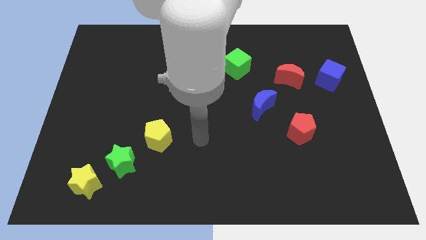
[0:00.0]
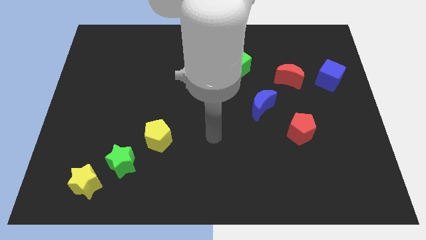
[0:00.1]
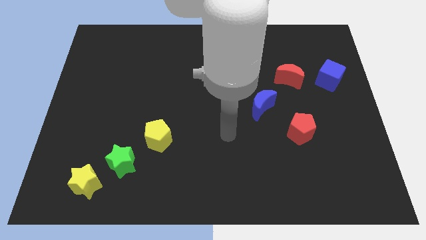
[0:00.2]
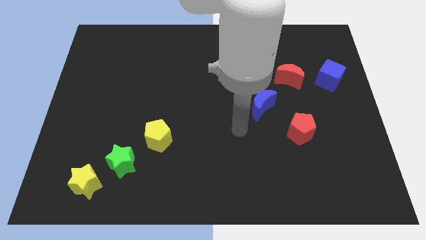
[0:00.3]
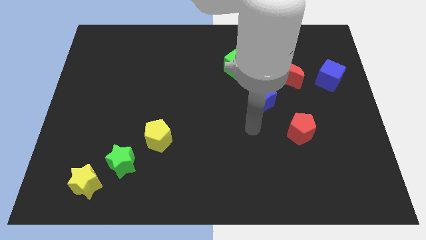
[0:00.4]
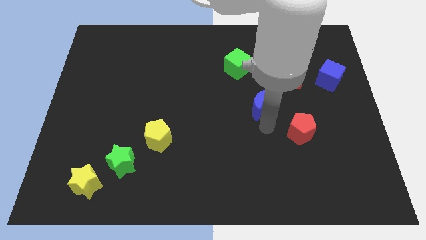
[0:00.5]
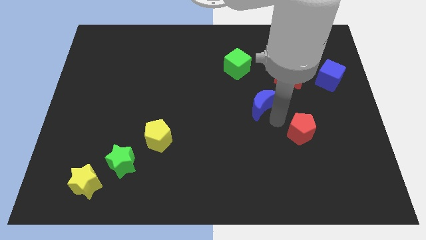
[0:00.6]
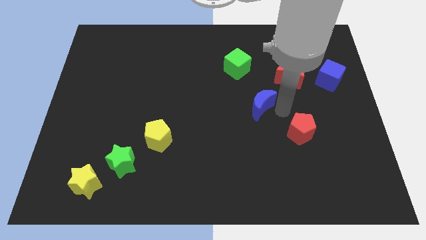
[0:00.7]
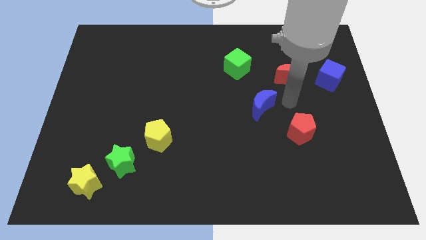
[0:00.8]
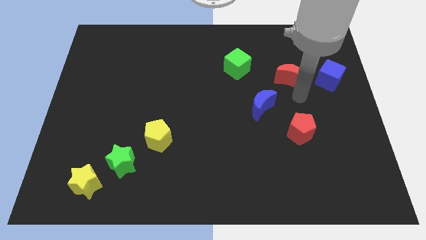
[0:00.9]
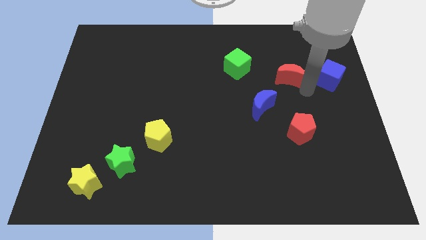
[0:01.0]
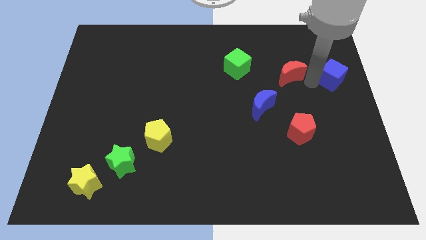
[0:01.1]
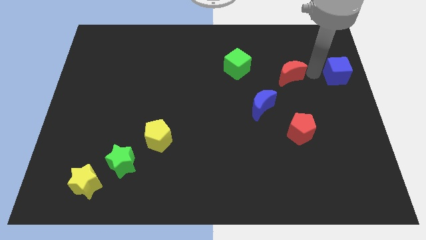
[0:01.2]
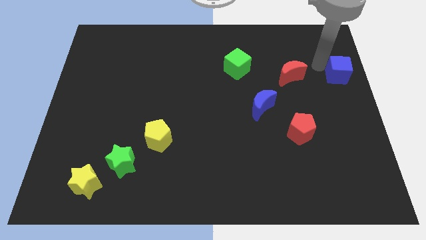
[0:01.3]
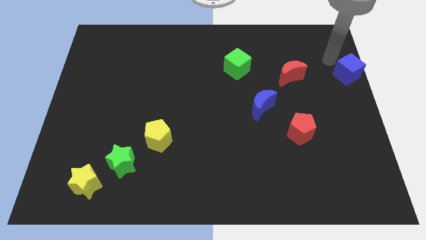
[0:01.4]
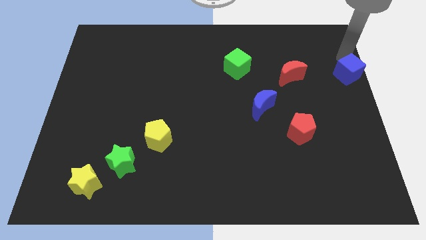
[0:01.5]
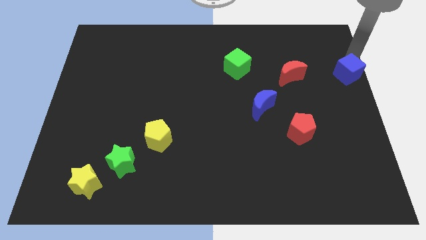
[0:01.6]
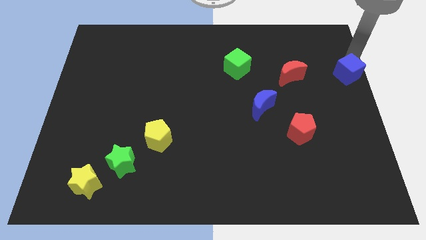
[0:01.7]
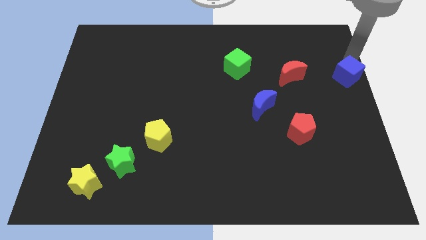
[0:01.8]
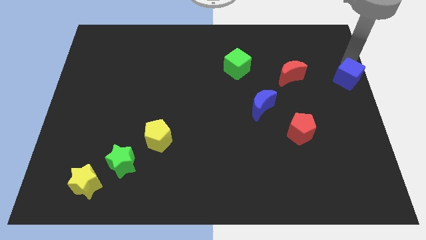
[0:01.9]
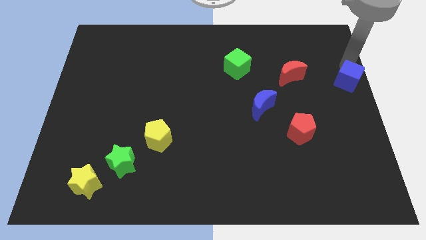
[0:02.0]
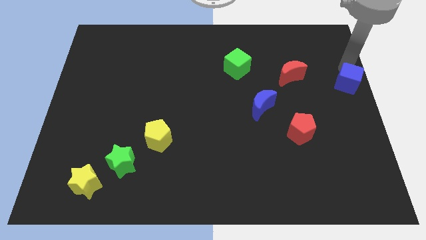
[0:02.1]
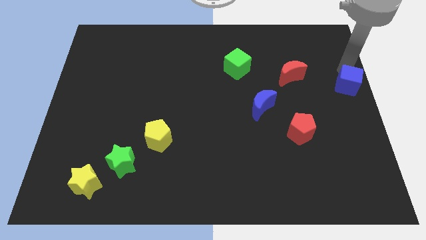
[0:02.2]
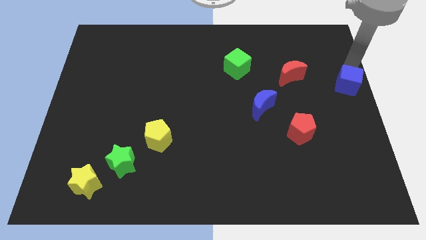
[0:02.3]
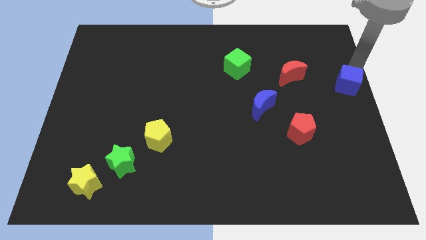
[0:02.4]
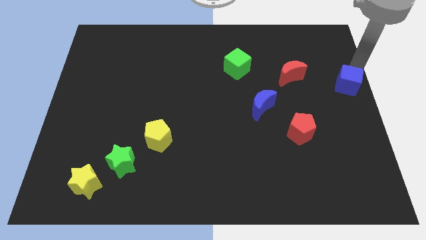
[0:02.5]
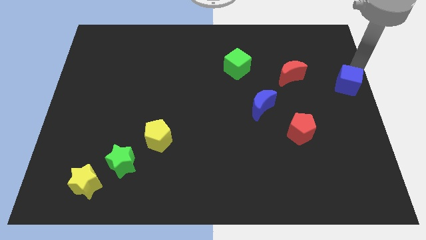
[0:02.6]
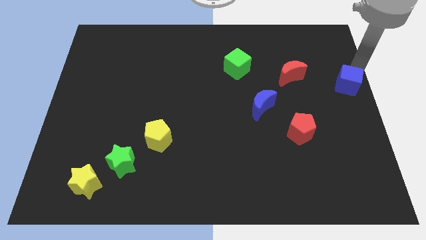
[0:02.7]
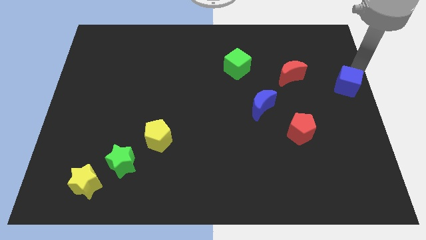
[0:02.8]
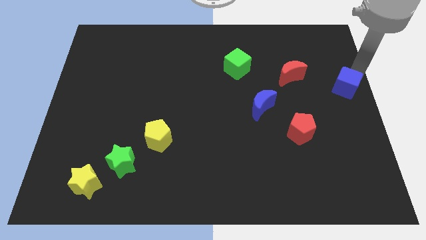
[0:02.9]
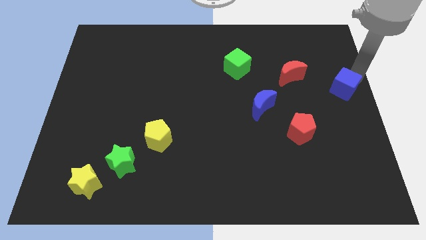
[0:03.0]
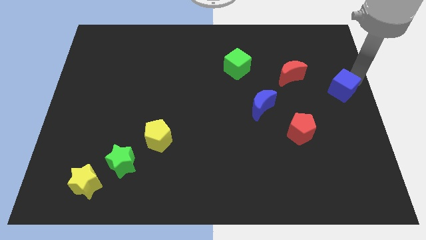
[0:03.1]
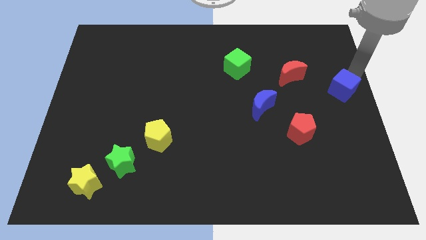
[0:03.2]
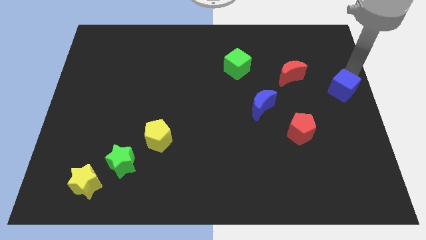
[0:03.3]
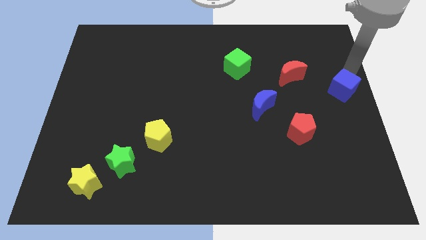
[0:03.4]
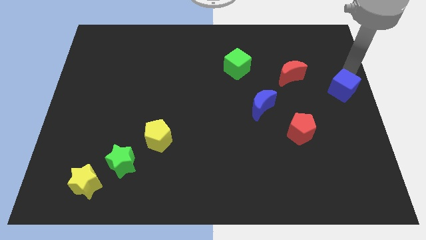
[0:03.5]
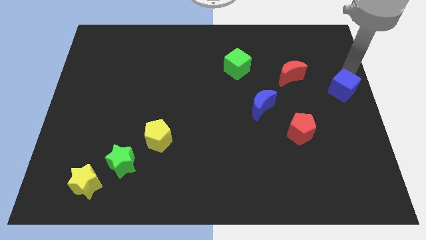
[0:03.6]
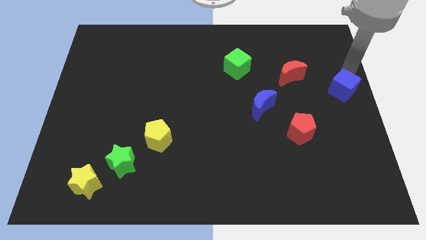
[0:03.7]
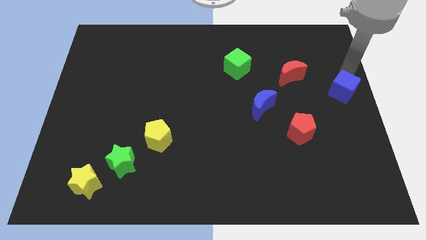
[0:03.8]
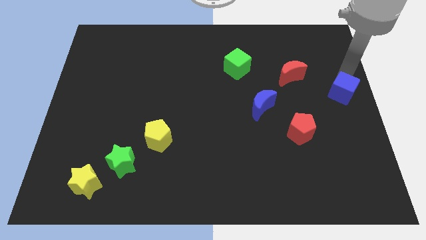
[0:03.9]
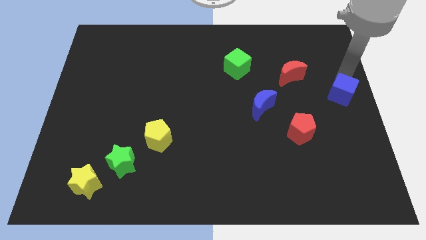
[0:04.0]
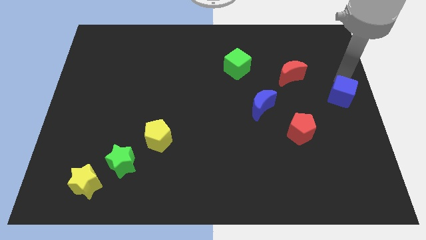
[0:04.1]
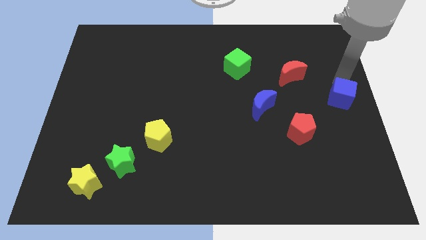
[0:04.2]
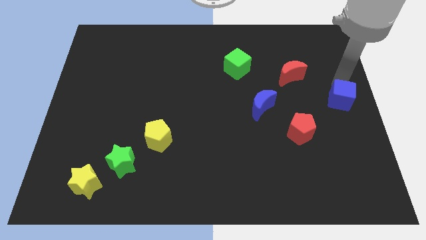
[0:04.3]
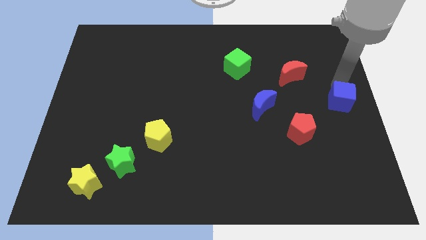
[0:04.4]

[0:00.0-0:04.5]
push the blue cube somewhat down

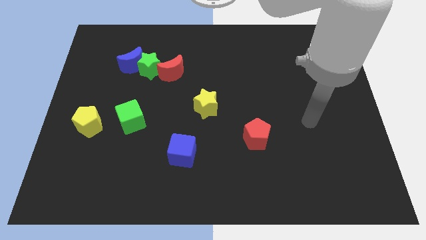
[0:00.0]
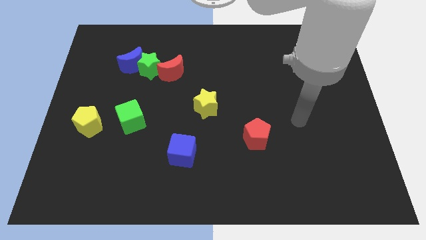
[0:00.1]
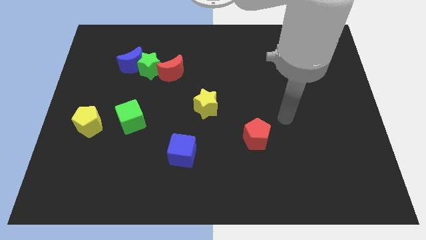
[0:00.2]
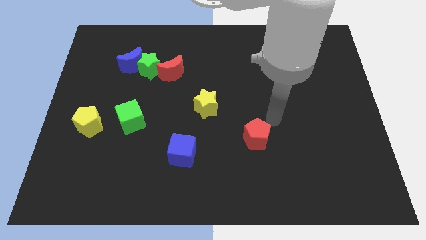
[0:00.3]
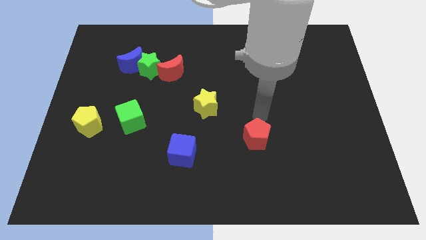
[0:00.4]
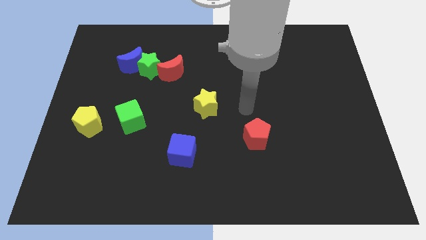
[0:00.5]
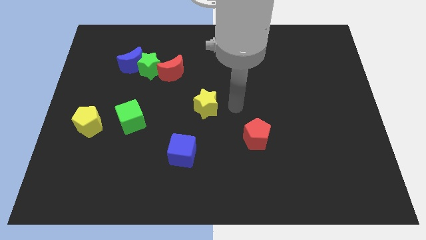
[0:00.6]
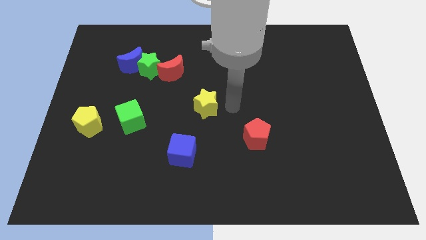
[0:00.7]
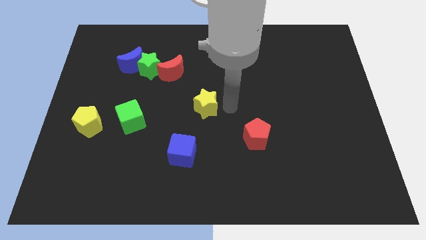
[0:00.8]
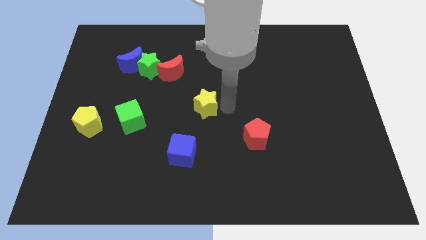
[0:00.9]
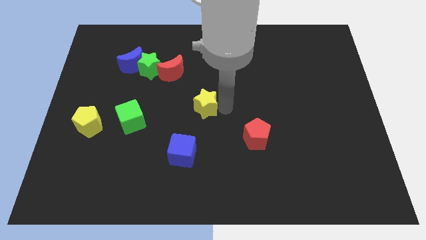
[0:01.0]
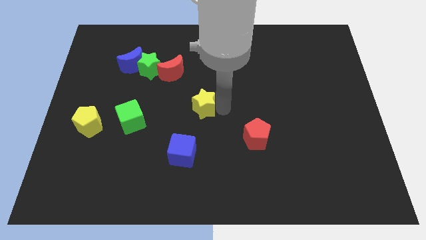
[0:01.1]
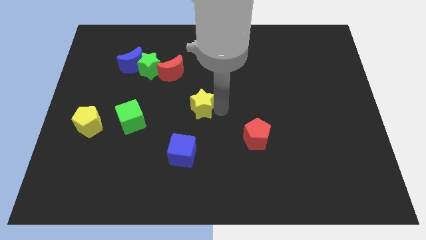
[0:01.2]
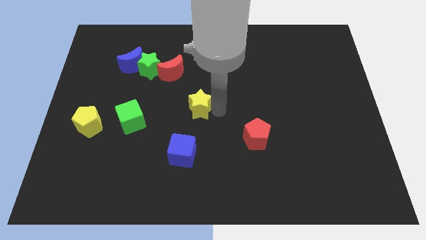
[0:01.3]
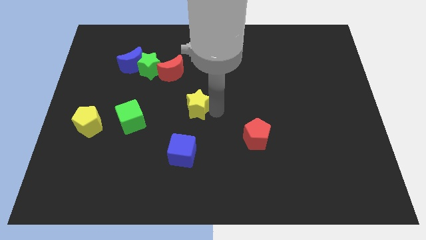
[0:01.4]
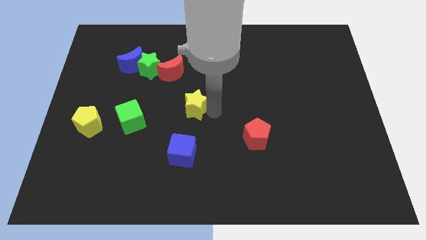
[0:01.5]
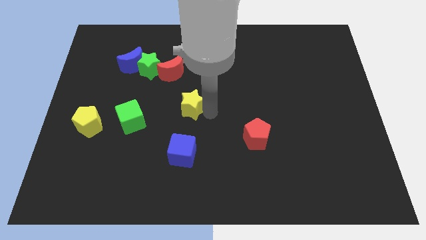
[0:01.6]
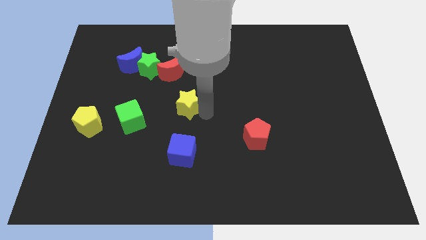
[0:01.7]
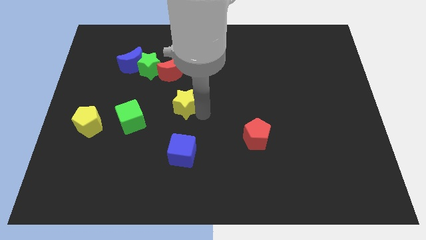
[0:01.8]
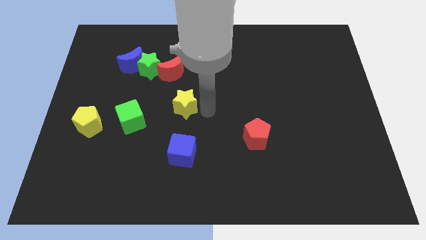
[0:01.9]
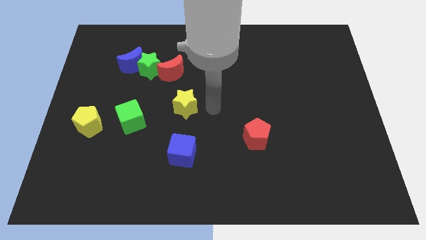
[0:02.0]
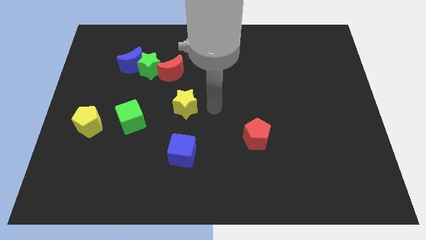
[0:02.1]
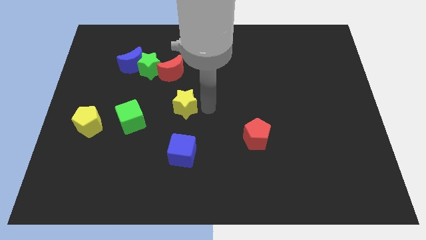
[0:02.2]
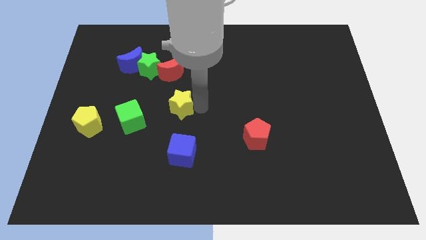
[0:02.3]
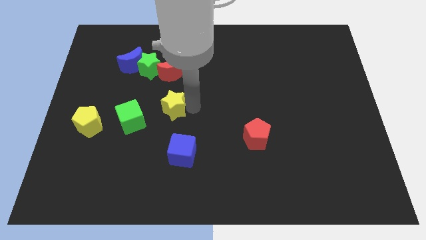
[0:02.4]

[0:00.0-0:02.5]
slide the yellow star a little bit left

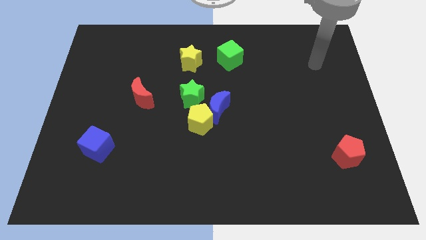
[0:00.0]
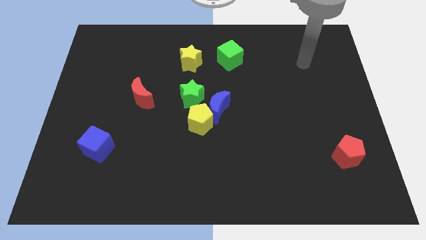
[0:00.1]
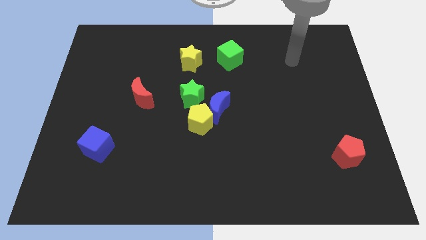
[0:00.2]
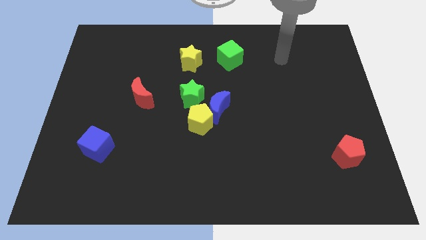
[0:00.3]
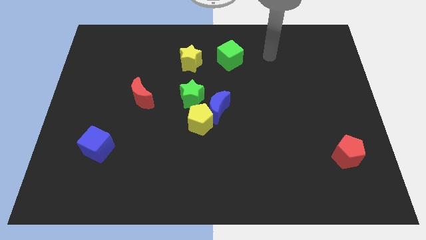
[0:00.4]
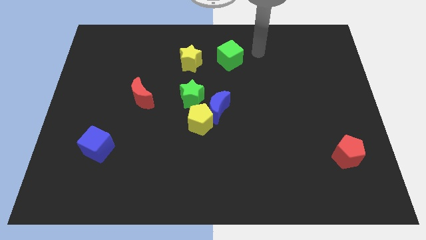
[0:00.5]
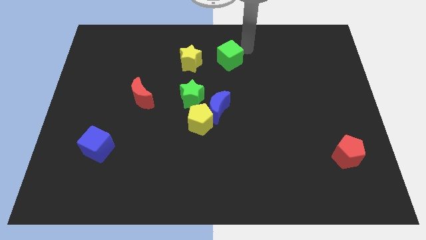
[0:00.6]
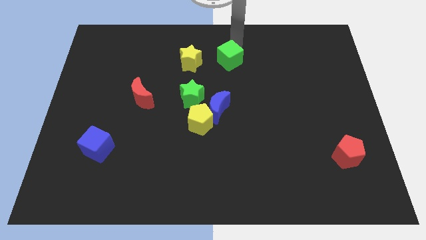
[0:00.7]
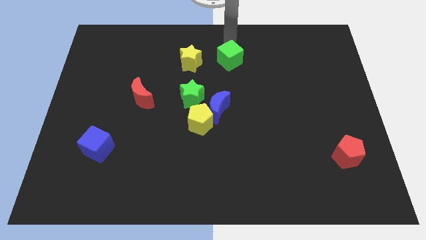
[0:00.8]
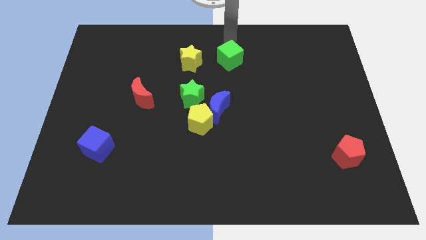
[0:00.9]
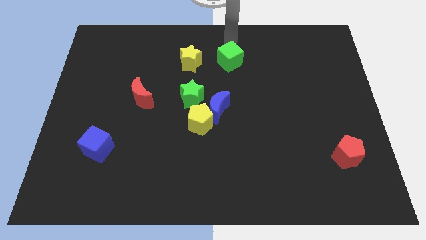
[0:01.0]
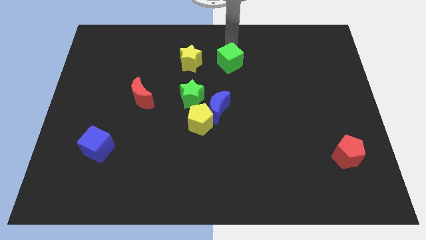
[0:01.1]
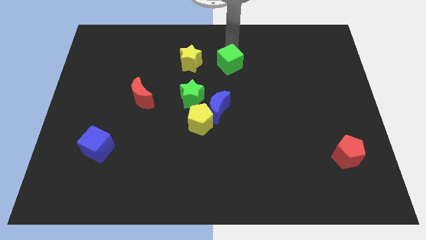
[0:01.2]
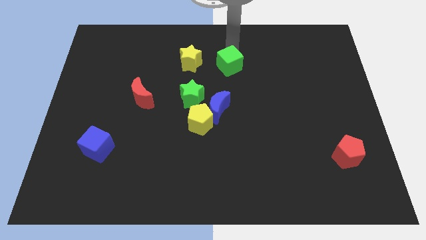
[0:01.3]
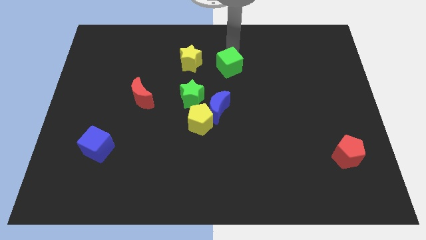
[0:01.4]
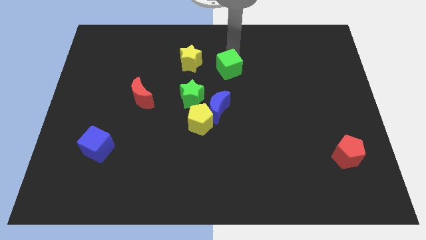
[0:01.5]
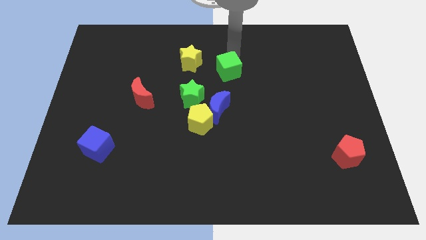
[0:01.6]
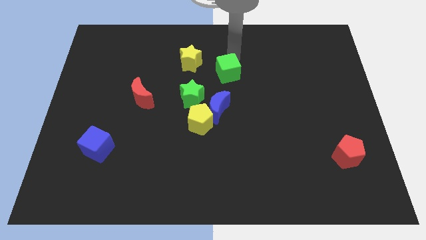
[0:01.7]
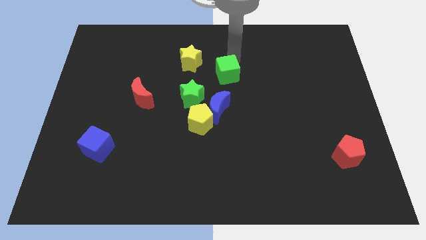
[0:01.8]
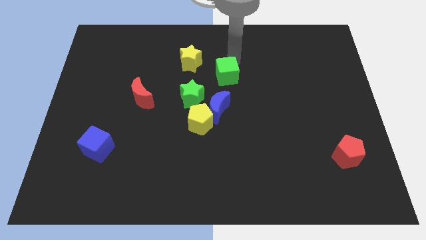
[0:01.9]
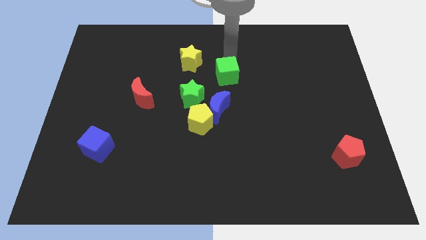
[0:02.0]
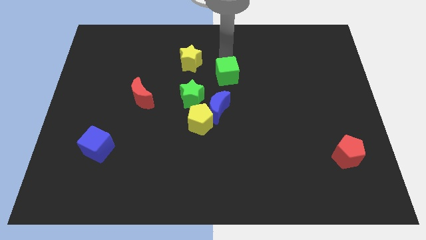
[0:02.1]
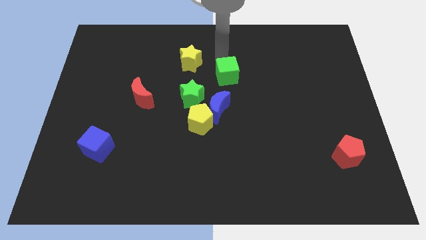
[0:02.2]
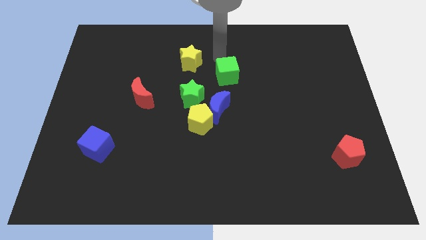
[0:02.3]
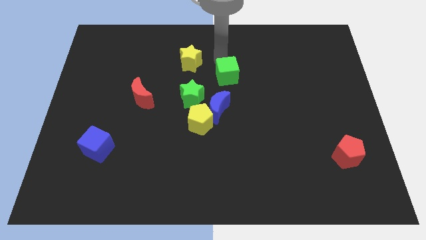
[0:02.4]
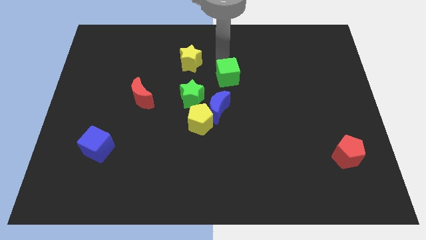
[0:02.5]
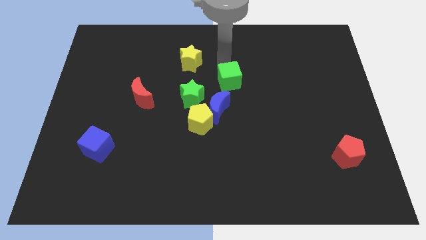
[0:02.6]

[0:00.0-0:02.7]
push the green cube downwards a bit
